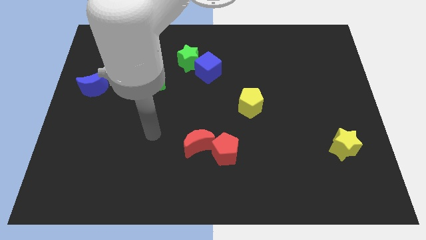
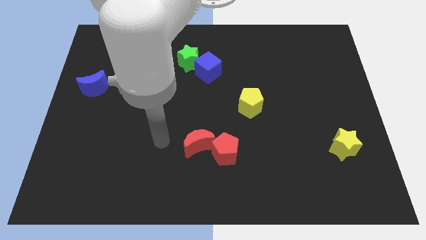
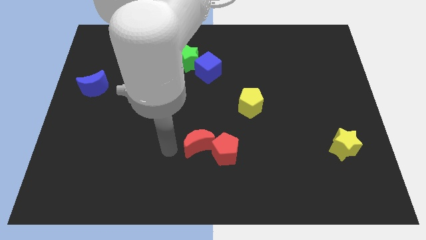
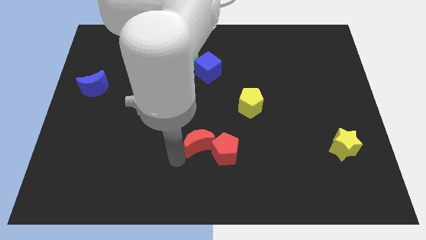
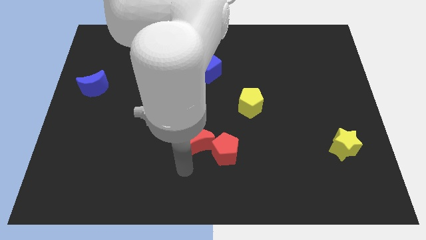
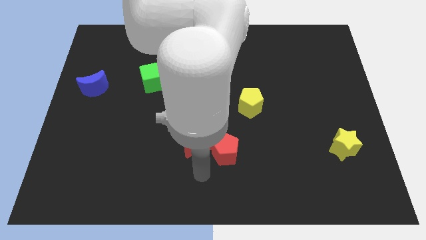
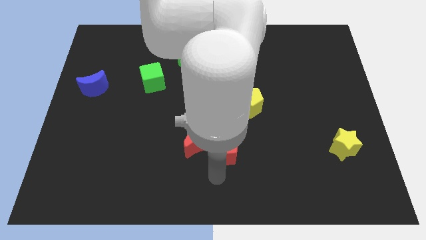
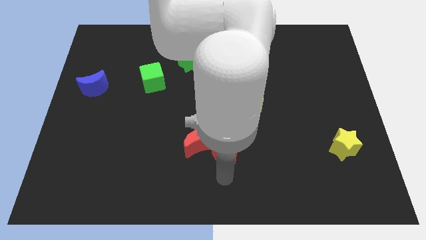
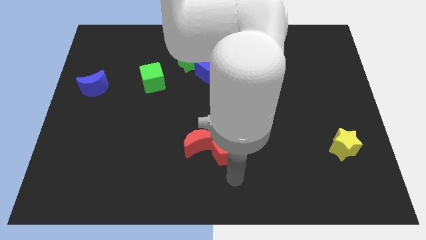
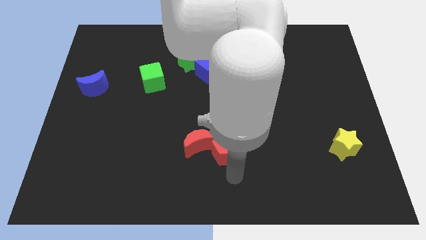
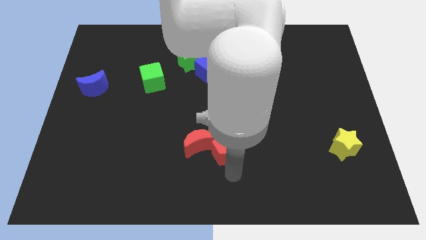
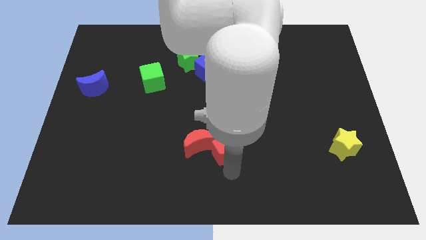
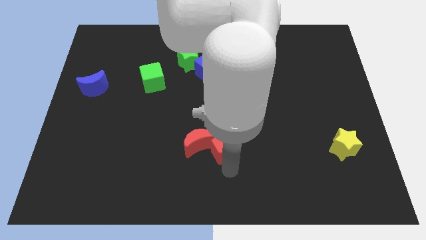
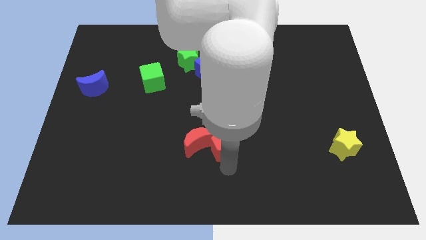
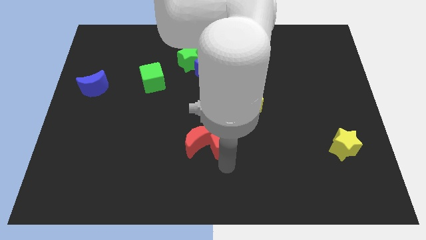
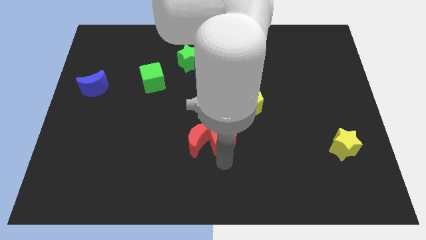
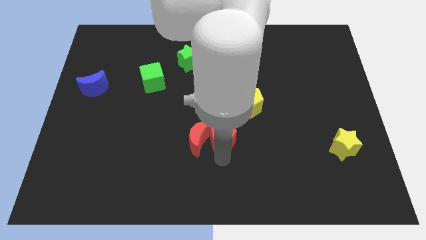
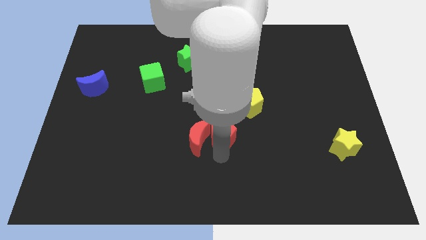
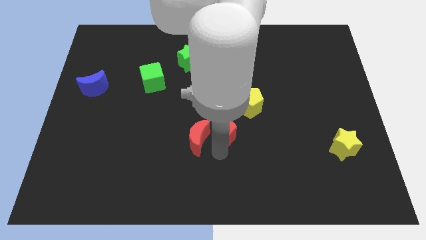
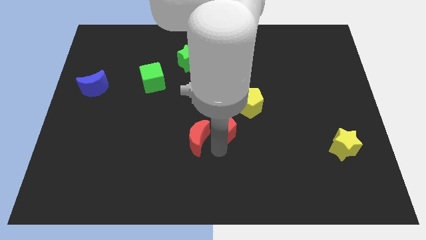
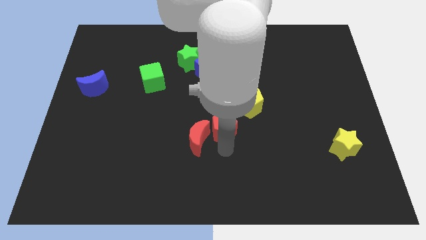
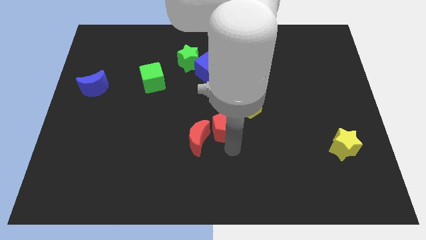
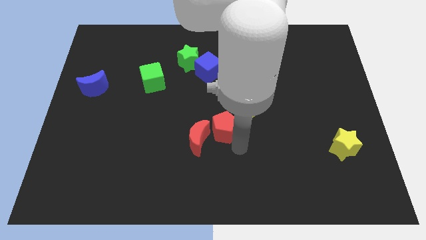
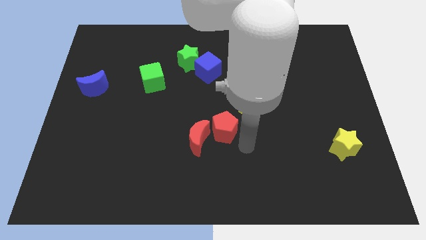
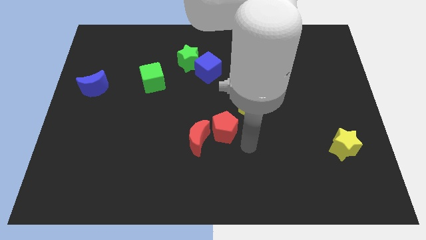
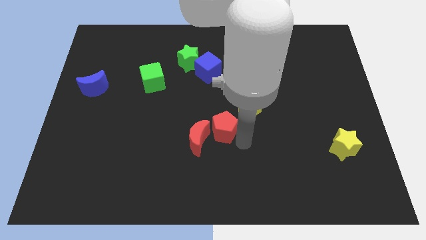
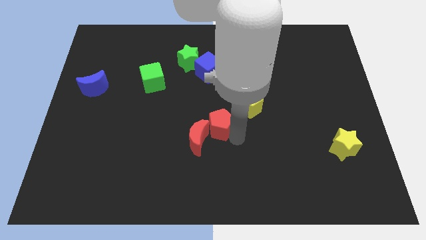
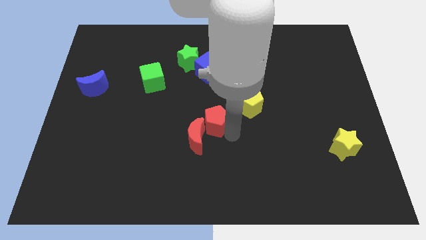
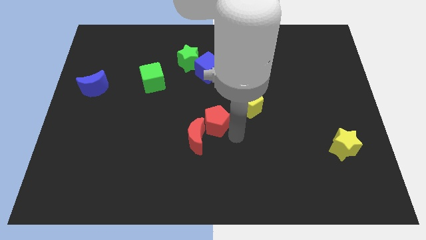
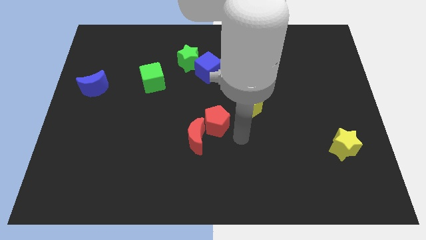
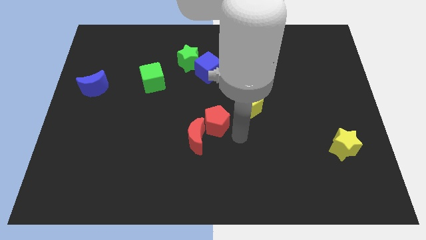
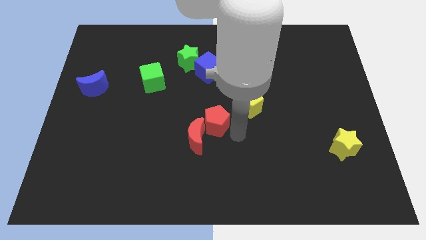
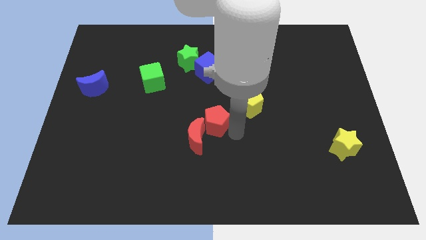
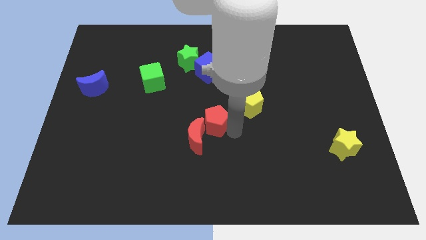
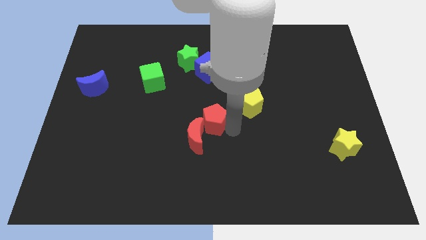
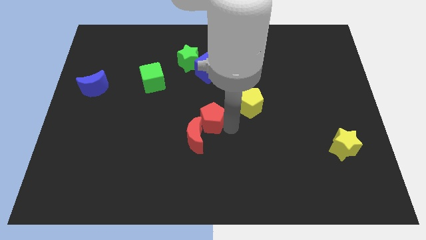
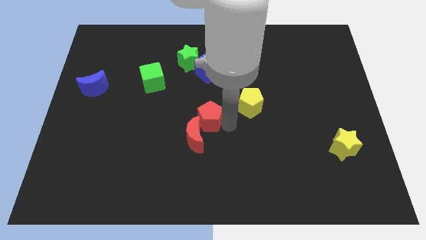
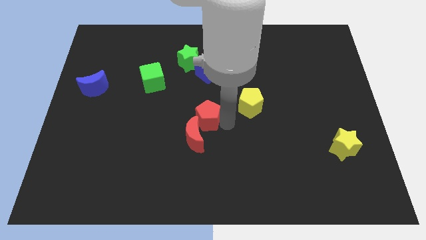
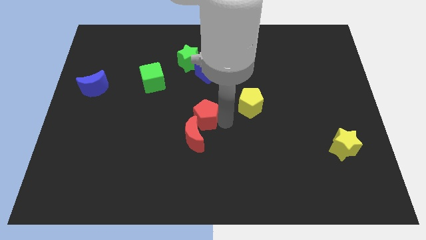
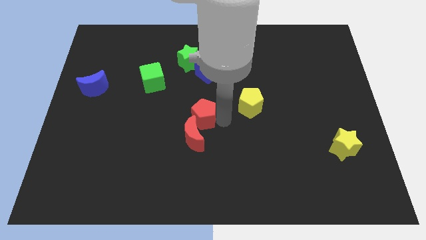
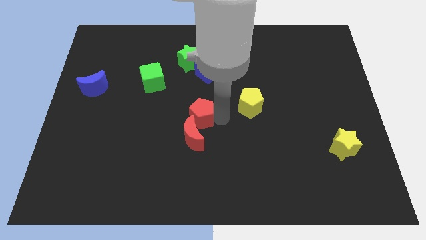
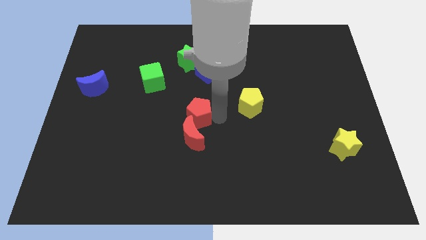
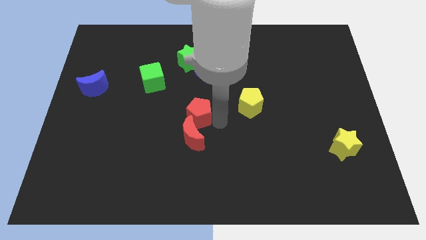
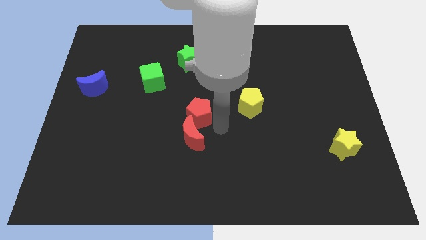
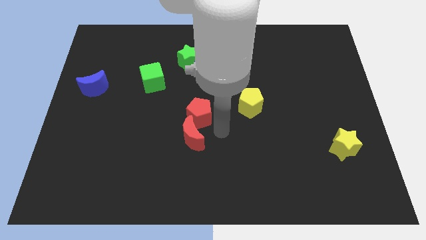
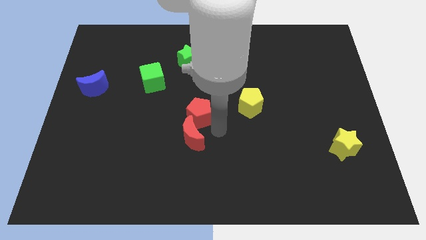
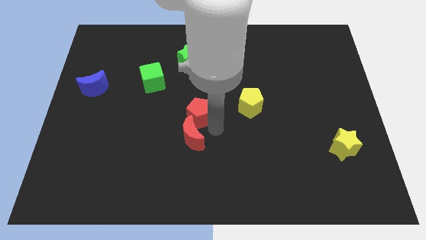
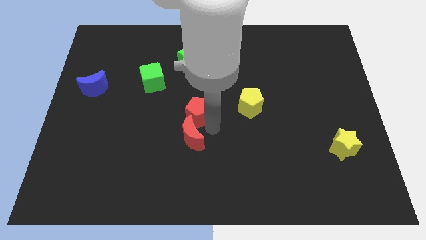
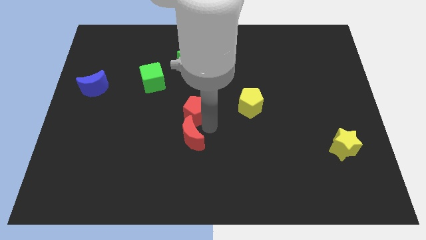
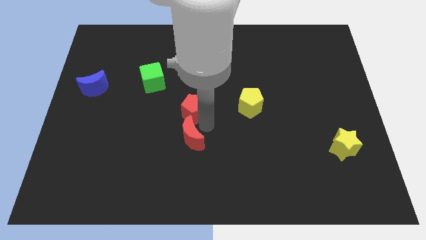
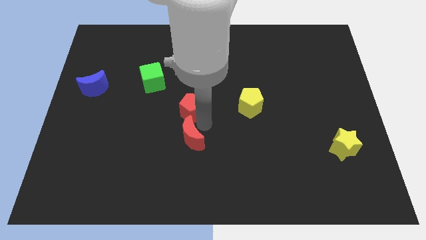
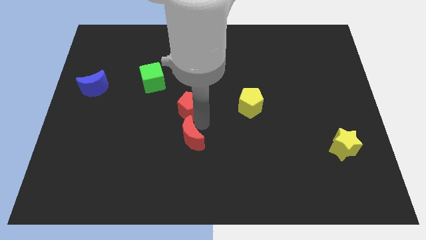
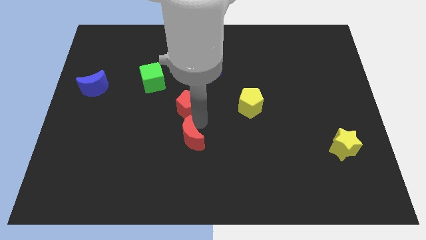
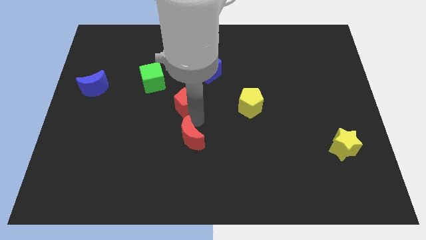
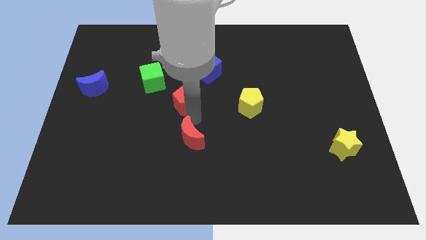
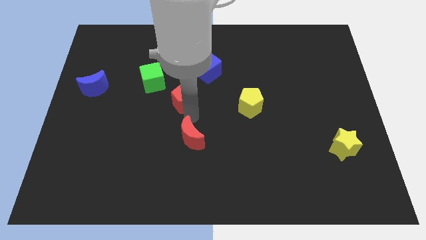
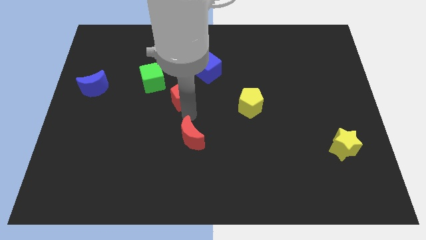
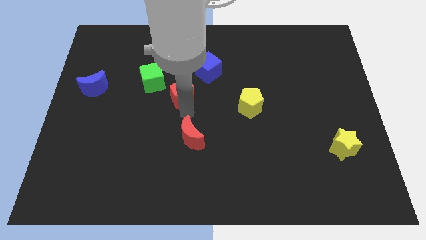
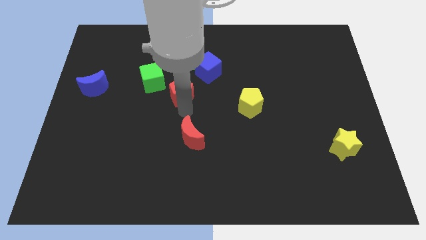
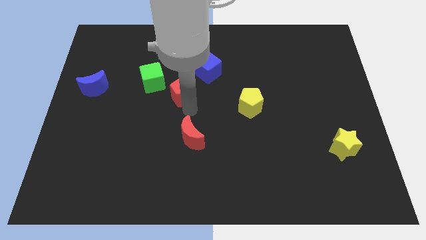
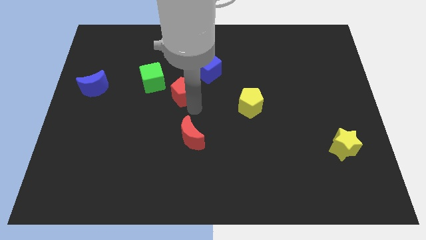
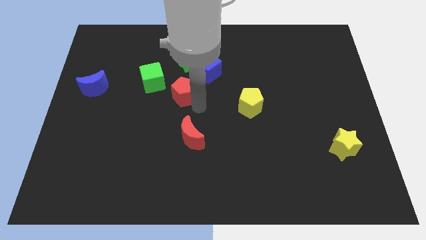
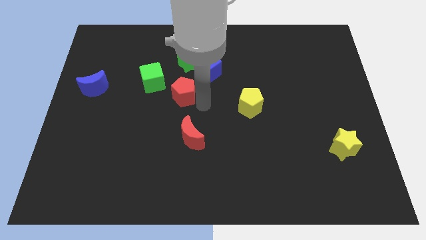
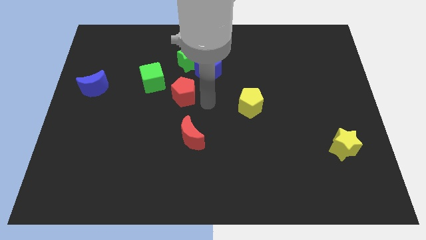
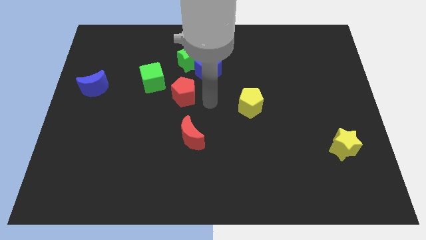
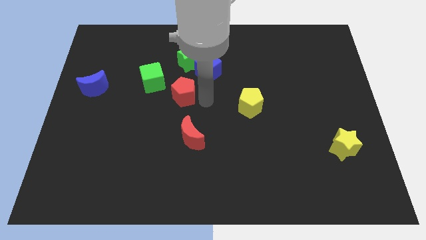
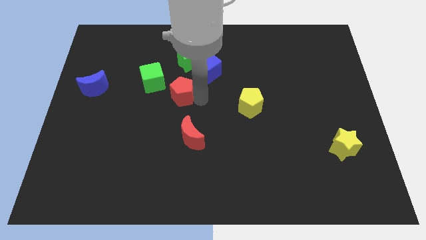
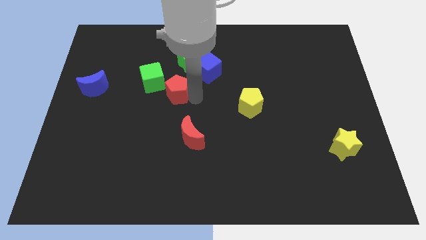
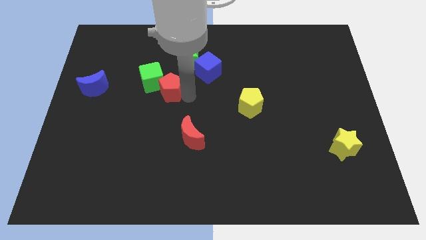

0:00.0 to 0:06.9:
move the red pentagon close to the green cube

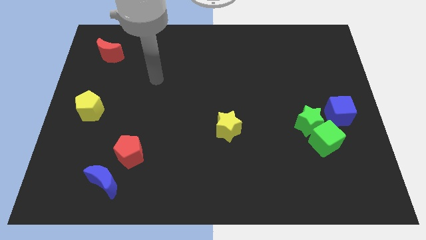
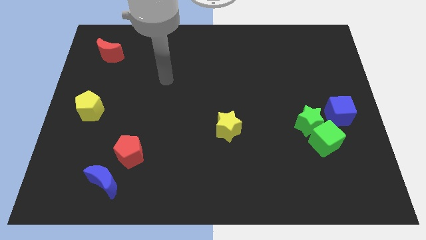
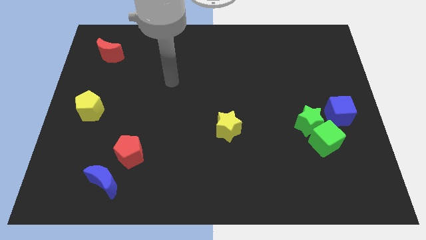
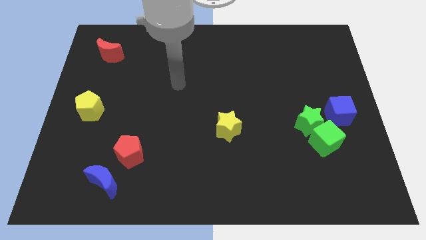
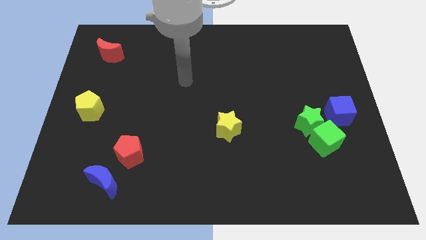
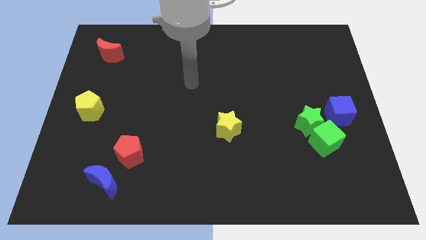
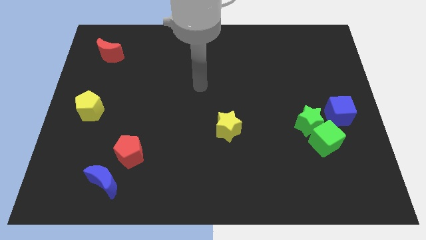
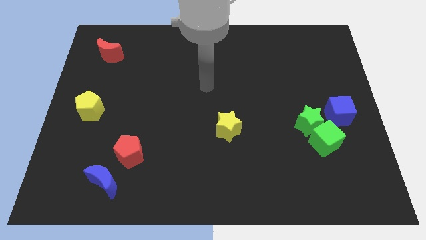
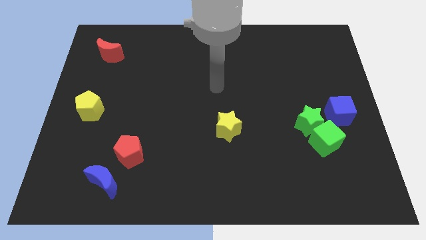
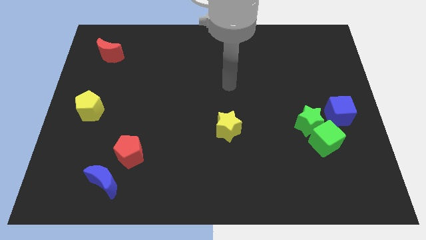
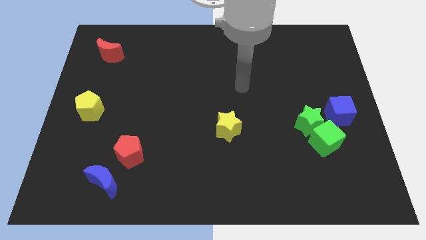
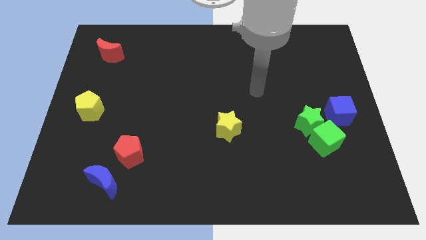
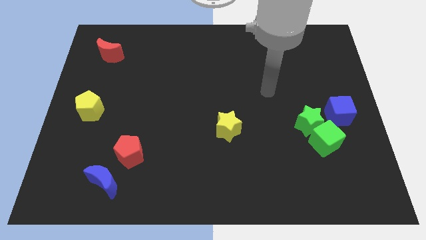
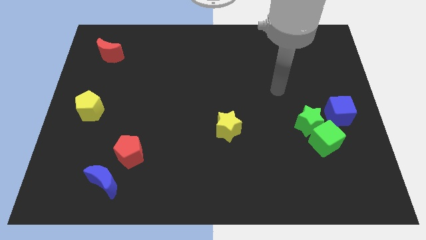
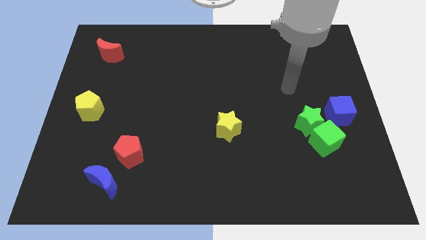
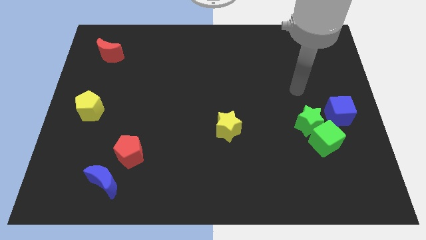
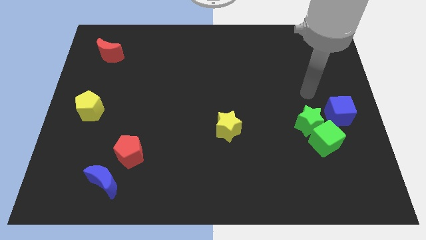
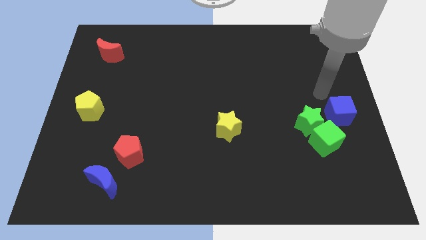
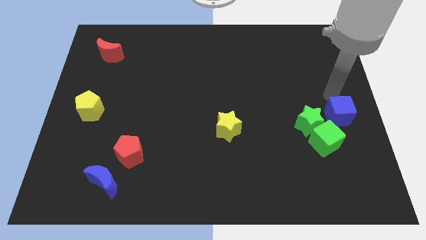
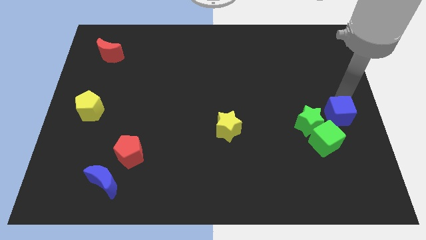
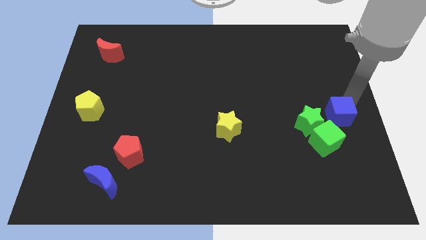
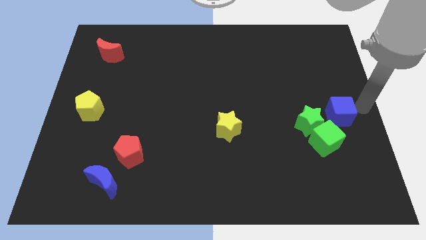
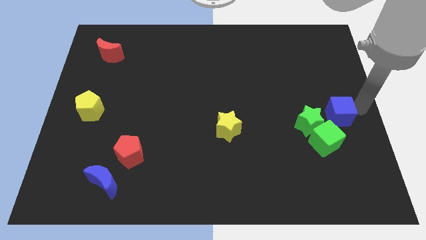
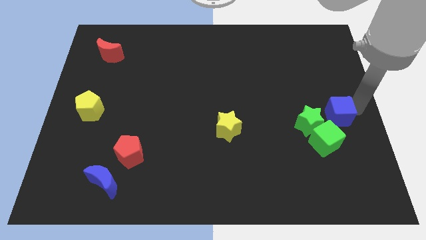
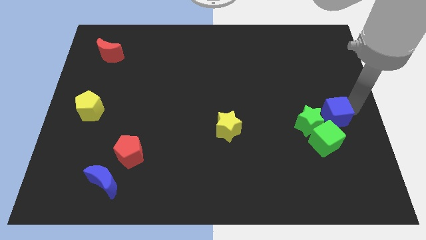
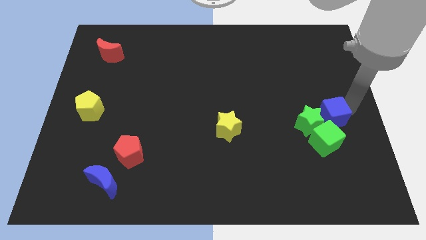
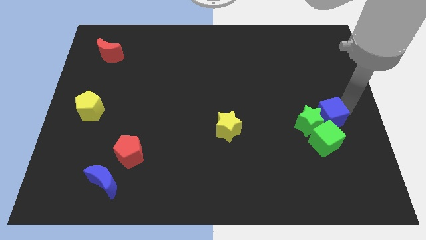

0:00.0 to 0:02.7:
put the blue cube towards the green star
